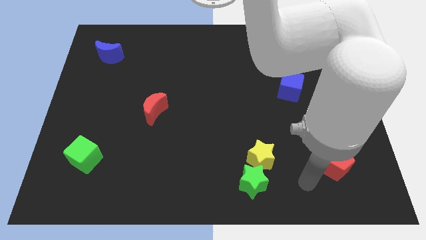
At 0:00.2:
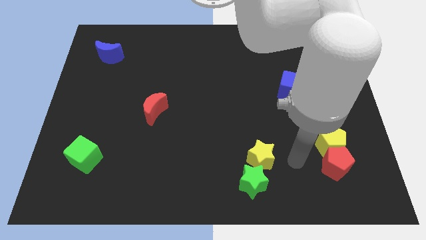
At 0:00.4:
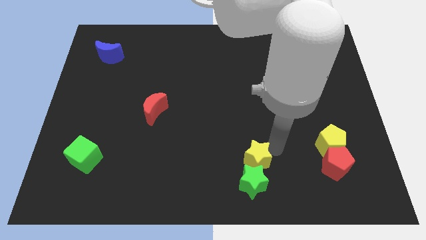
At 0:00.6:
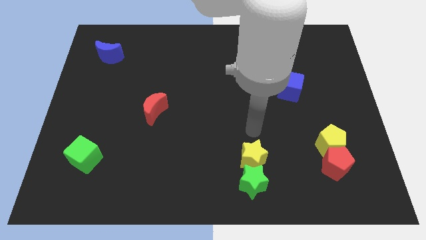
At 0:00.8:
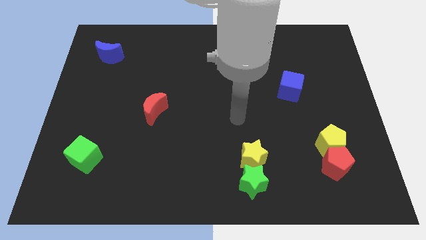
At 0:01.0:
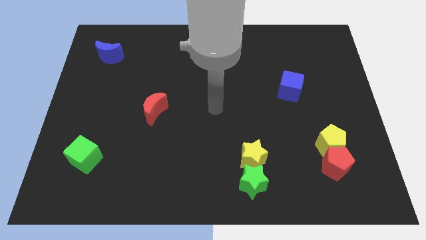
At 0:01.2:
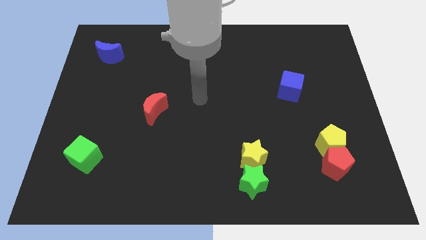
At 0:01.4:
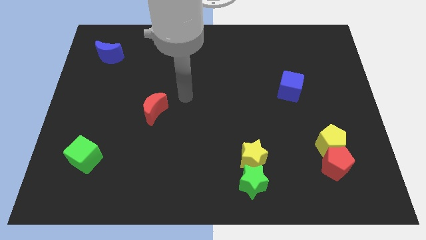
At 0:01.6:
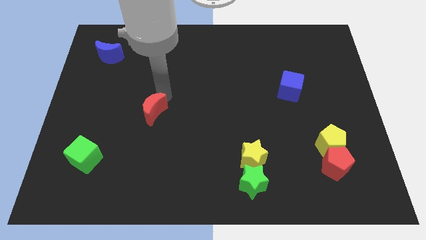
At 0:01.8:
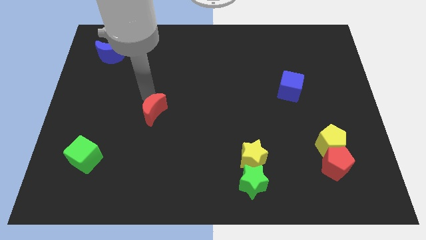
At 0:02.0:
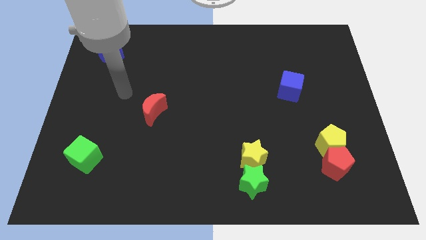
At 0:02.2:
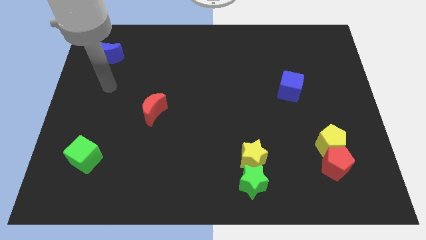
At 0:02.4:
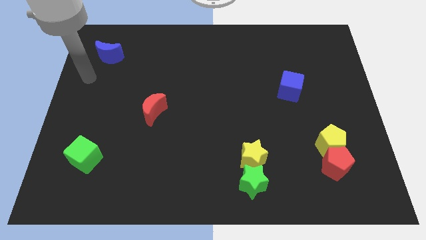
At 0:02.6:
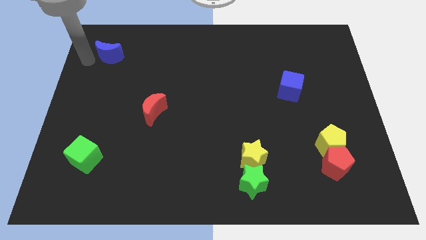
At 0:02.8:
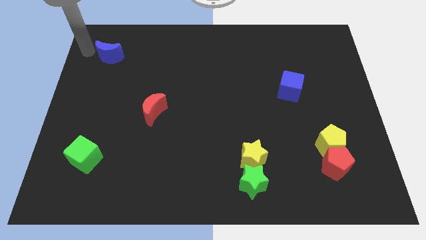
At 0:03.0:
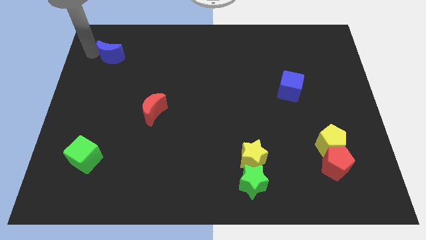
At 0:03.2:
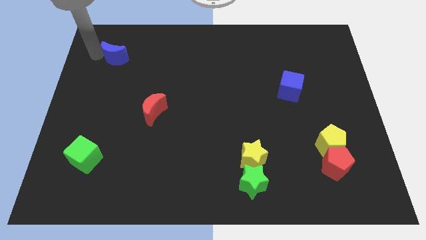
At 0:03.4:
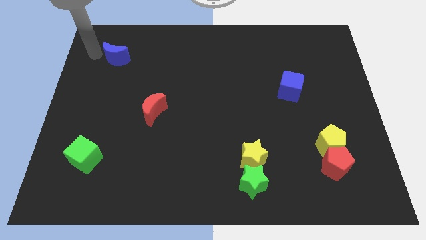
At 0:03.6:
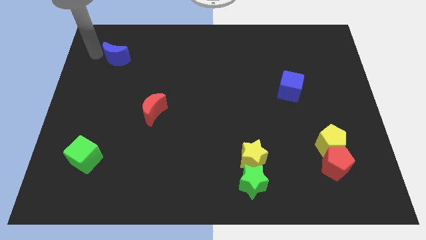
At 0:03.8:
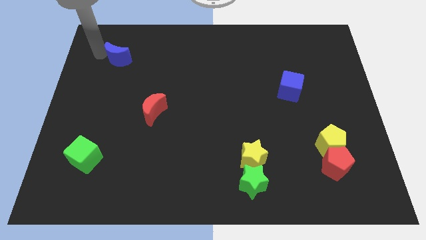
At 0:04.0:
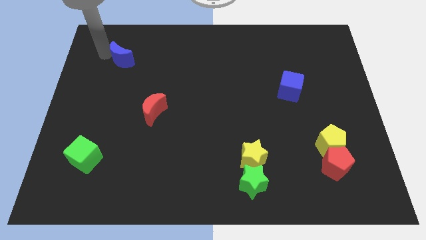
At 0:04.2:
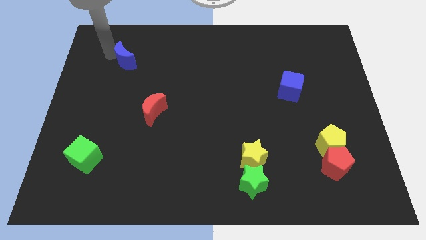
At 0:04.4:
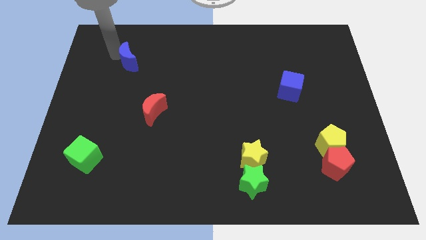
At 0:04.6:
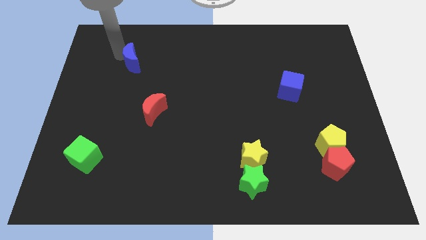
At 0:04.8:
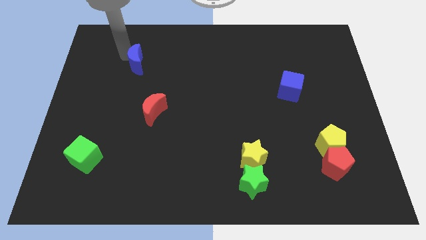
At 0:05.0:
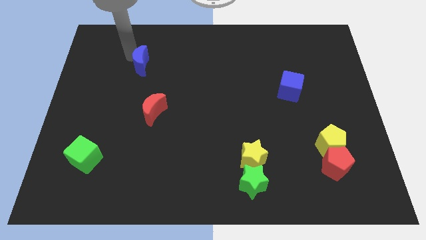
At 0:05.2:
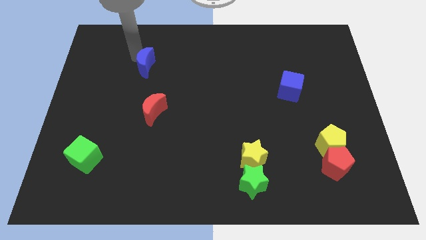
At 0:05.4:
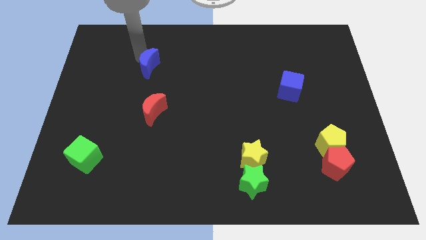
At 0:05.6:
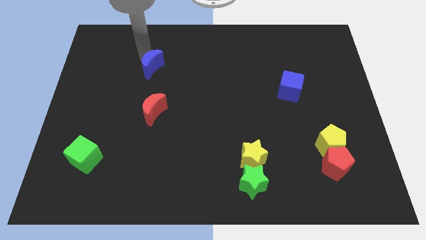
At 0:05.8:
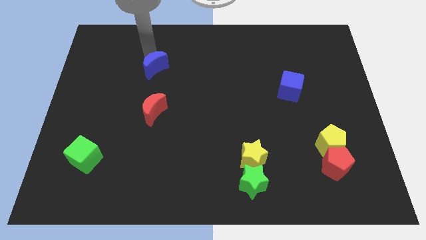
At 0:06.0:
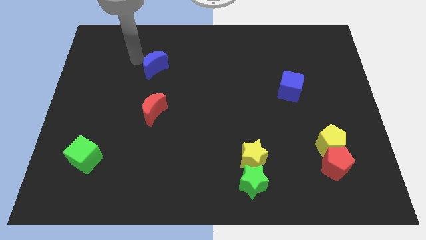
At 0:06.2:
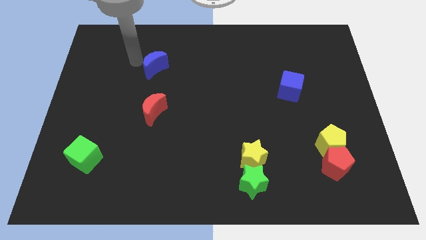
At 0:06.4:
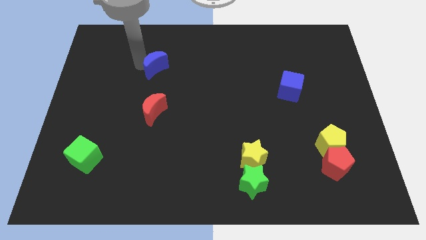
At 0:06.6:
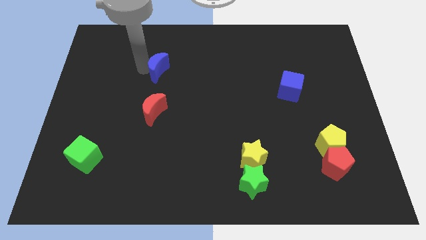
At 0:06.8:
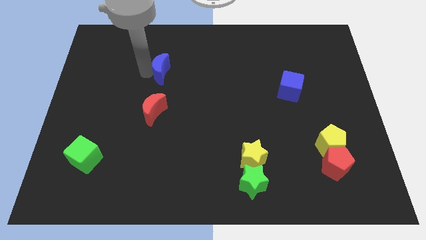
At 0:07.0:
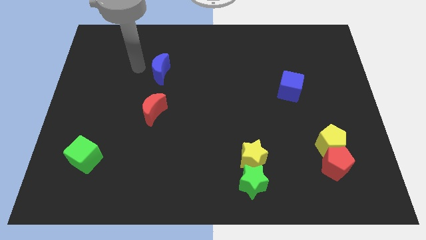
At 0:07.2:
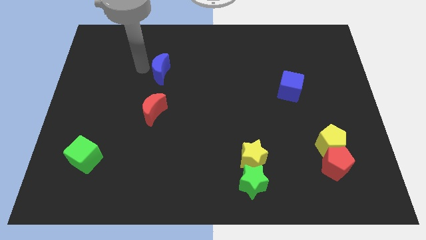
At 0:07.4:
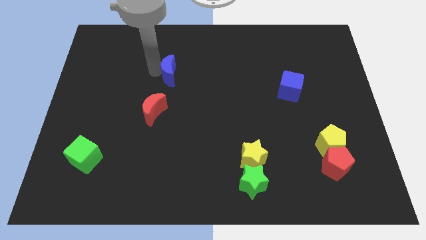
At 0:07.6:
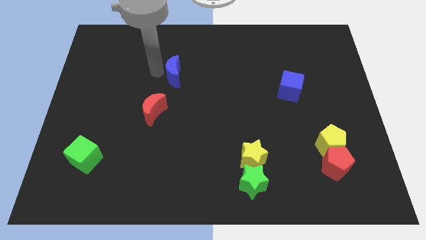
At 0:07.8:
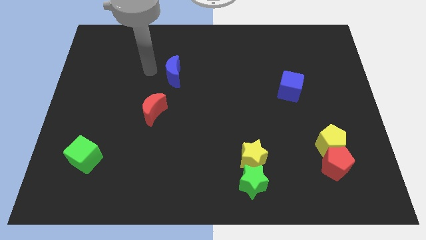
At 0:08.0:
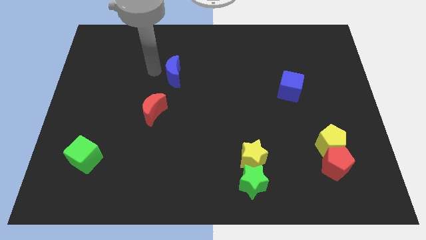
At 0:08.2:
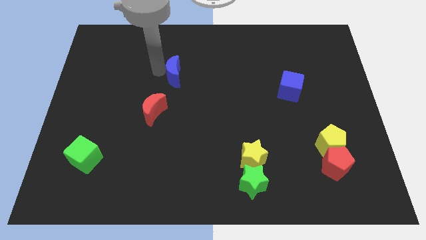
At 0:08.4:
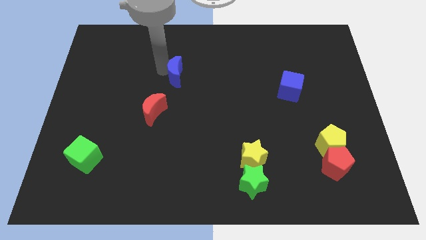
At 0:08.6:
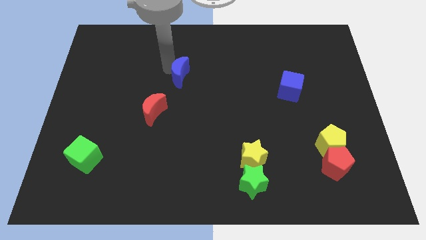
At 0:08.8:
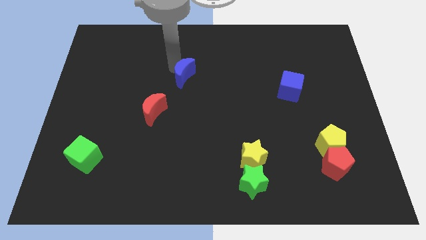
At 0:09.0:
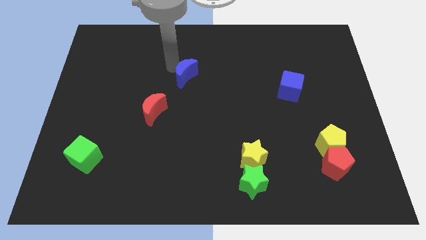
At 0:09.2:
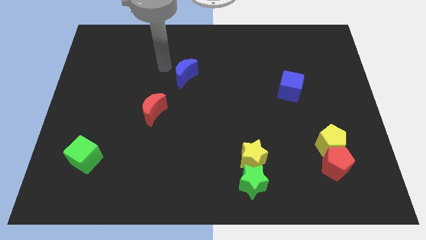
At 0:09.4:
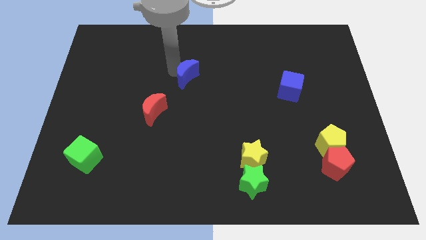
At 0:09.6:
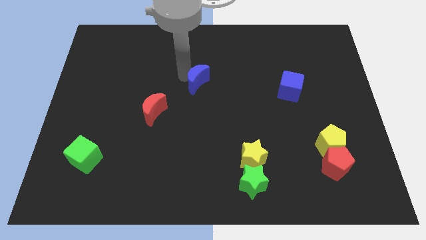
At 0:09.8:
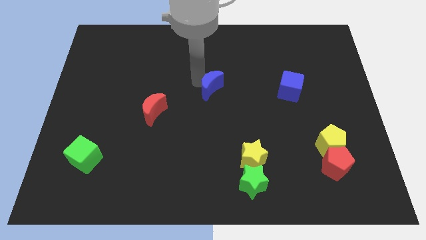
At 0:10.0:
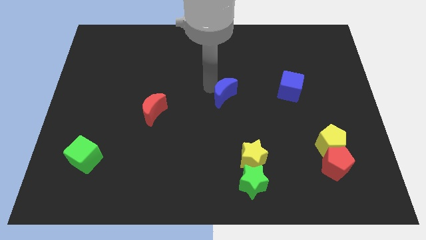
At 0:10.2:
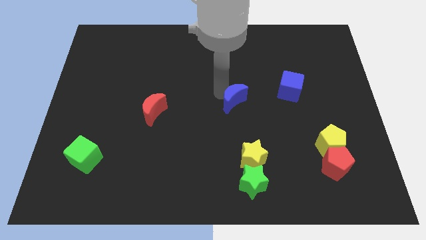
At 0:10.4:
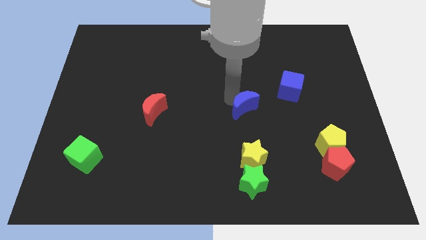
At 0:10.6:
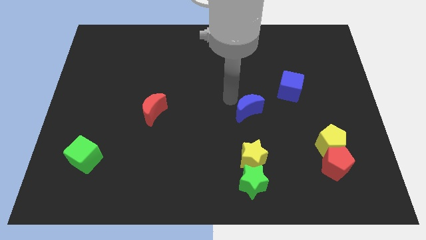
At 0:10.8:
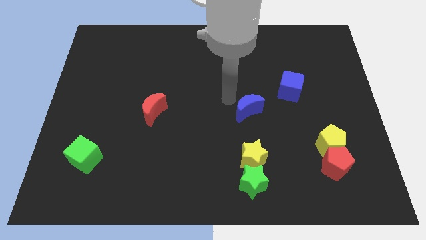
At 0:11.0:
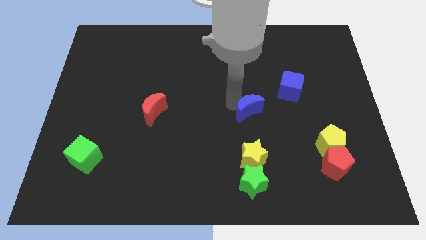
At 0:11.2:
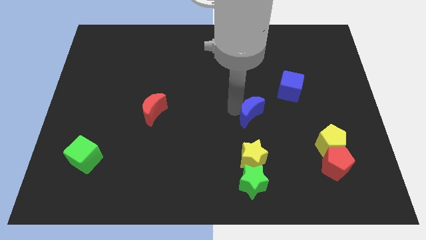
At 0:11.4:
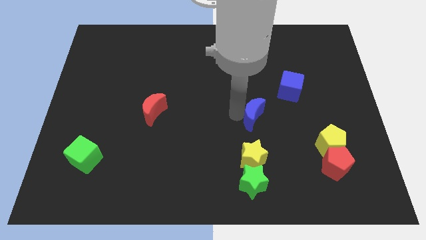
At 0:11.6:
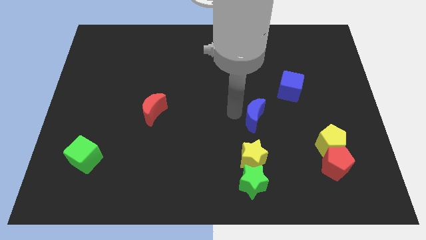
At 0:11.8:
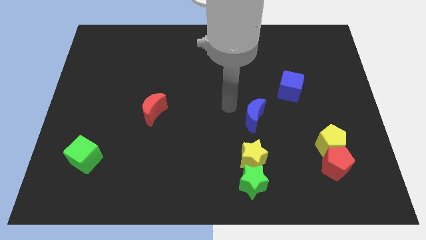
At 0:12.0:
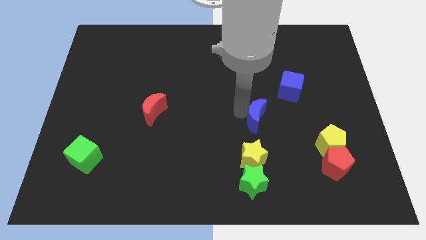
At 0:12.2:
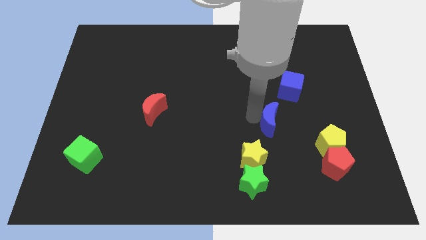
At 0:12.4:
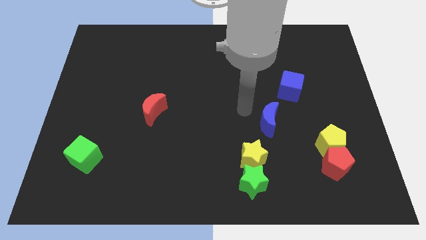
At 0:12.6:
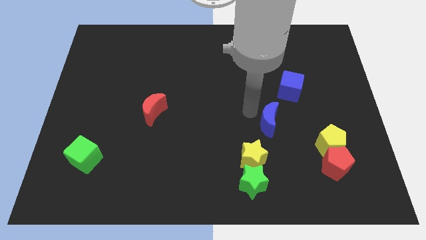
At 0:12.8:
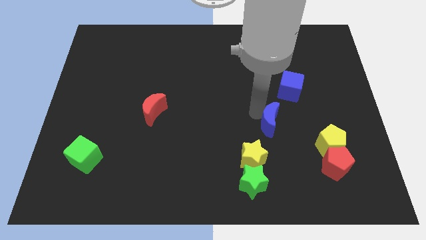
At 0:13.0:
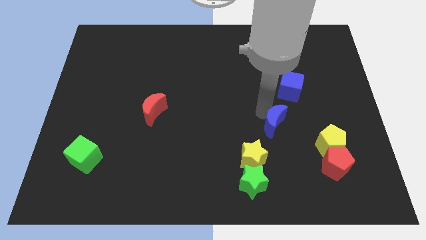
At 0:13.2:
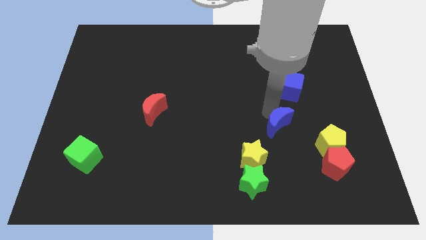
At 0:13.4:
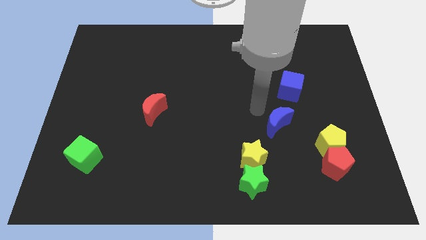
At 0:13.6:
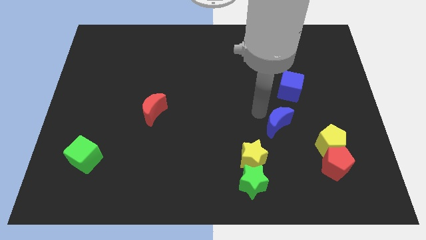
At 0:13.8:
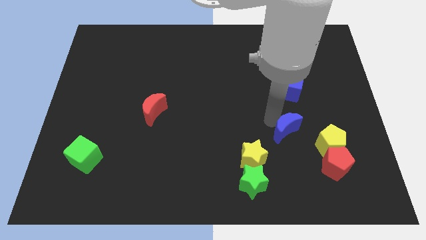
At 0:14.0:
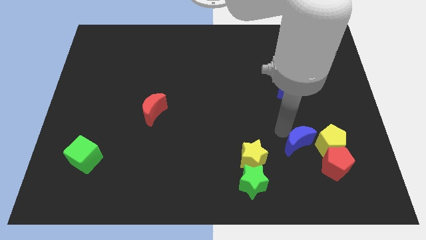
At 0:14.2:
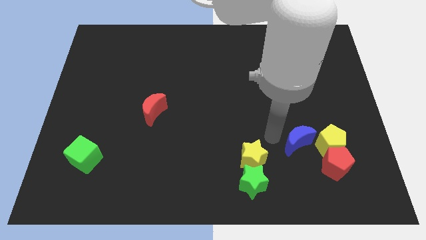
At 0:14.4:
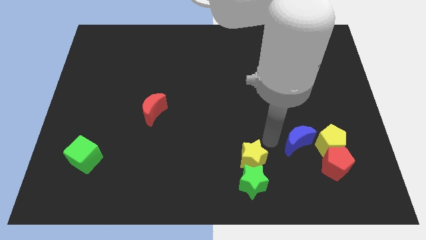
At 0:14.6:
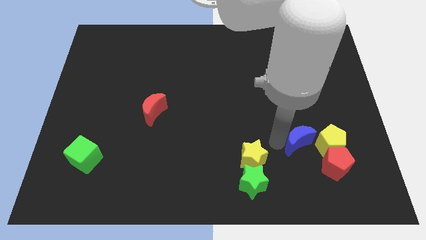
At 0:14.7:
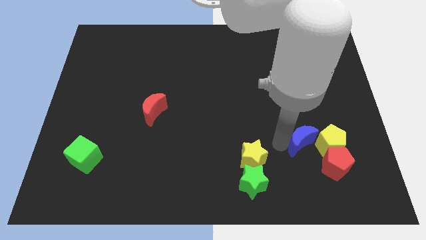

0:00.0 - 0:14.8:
slide the blue moon next to the yellow pentagon
